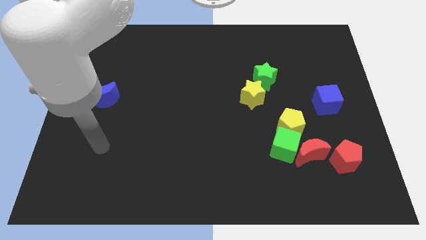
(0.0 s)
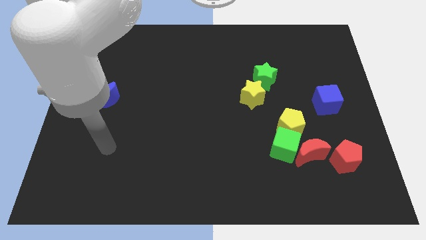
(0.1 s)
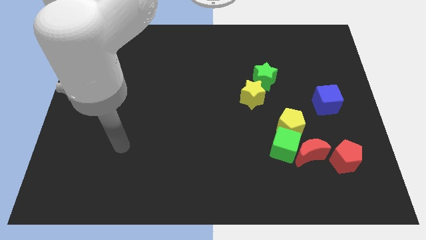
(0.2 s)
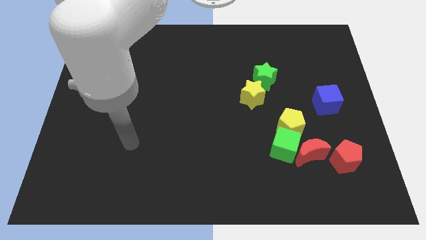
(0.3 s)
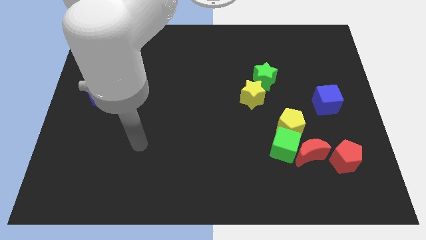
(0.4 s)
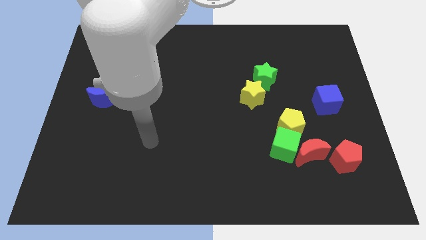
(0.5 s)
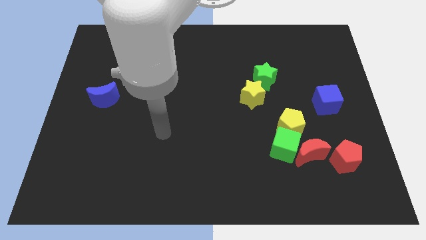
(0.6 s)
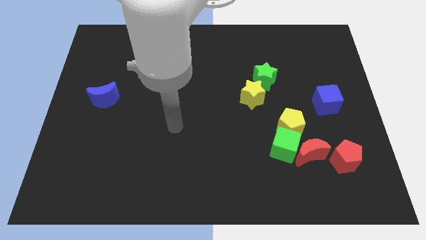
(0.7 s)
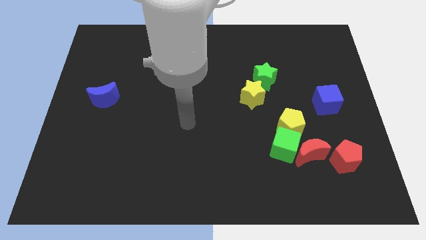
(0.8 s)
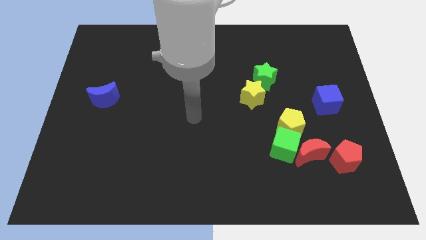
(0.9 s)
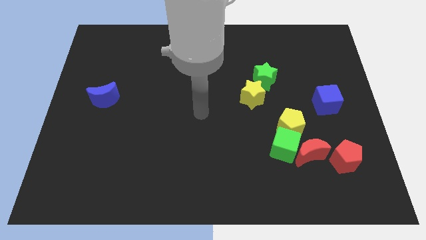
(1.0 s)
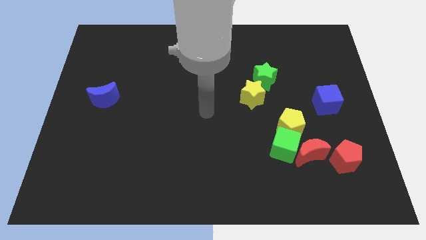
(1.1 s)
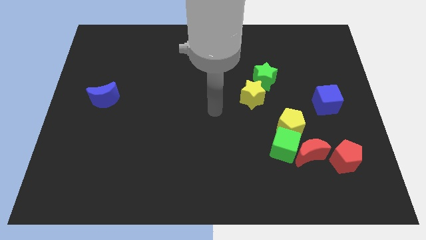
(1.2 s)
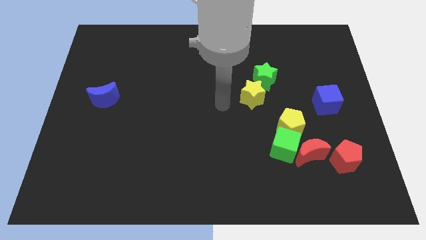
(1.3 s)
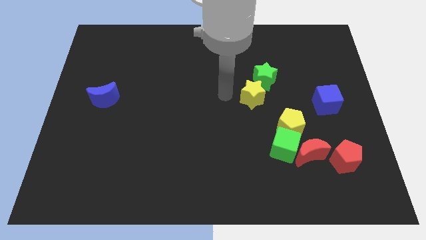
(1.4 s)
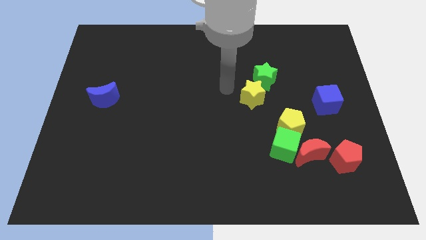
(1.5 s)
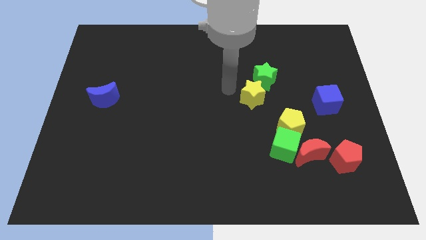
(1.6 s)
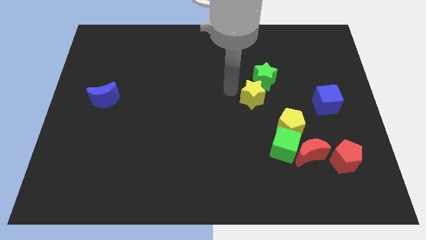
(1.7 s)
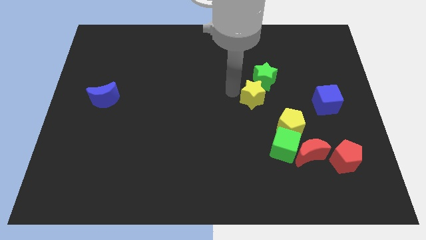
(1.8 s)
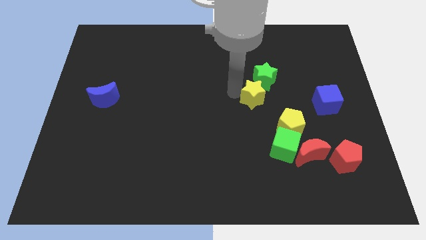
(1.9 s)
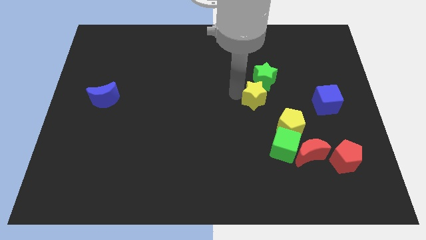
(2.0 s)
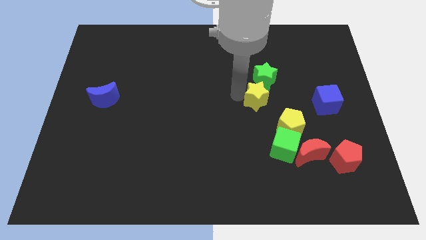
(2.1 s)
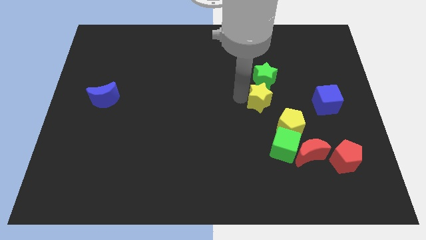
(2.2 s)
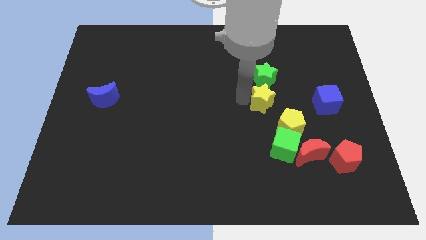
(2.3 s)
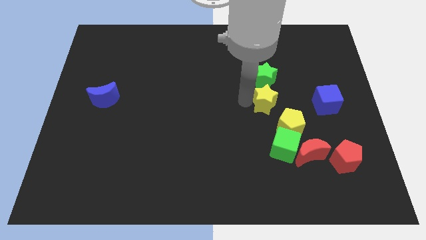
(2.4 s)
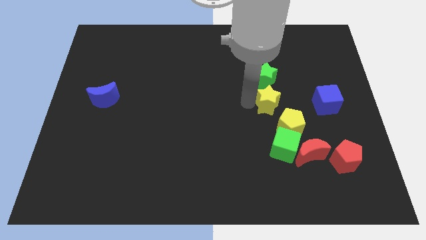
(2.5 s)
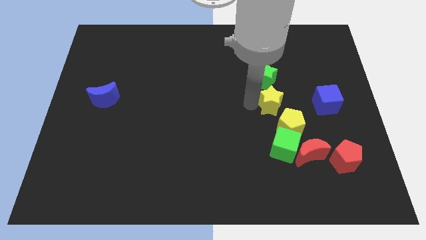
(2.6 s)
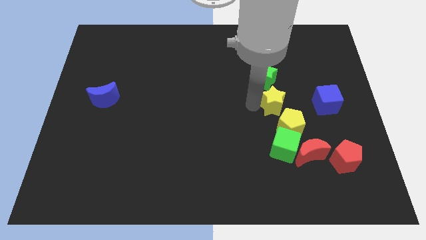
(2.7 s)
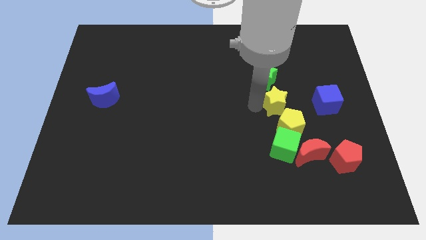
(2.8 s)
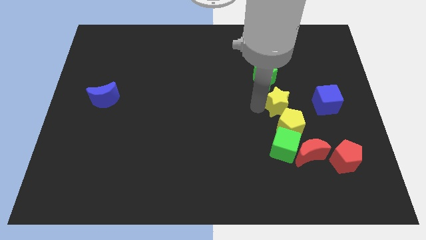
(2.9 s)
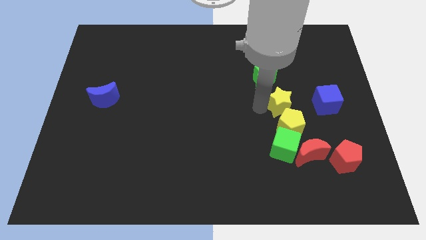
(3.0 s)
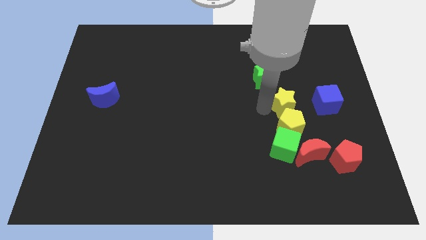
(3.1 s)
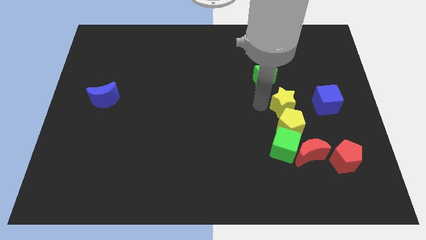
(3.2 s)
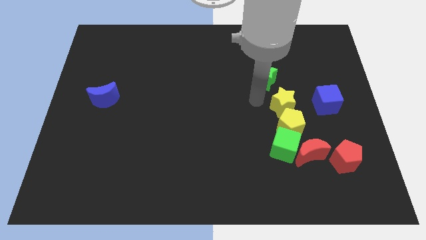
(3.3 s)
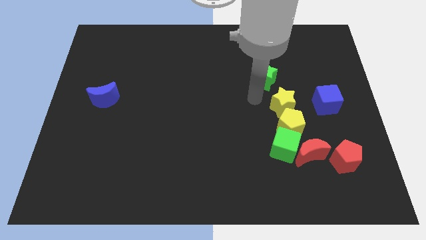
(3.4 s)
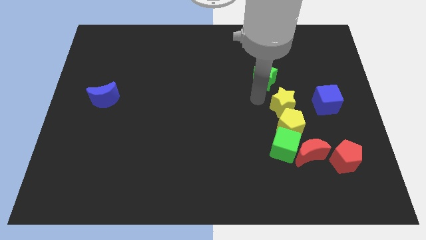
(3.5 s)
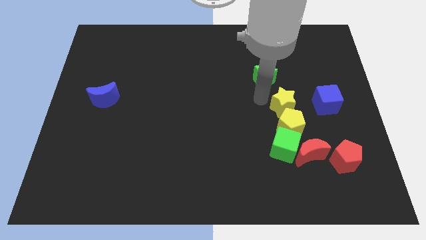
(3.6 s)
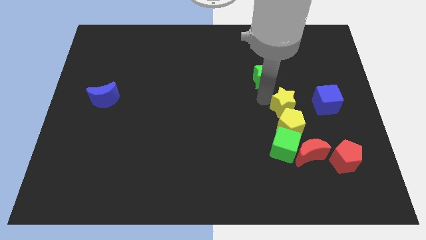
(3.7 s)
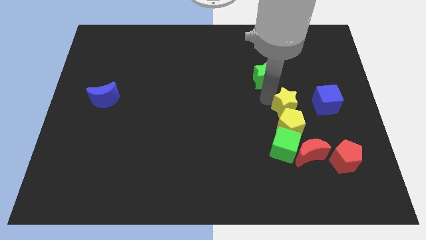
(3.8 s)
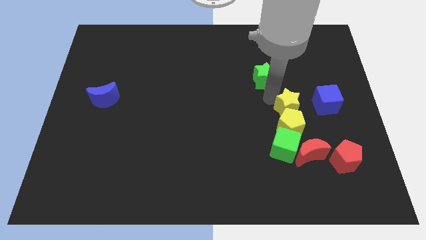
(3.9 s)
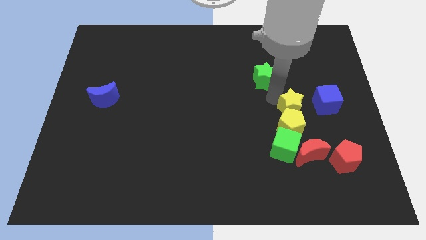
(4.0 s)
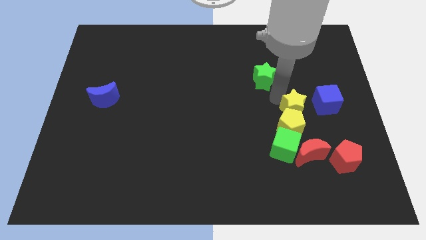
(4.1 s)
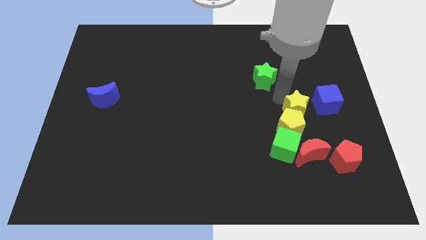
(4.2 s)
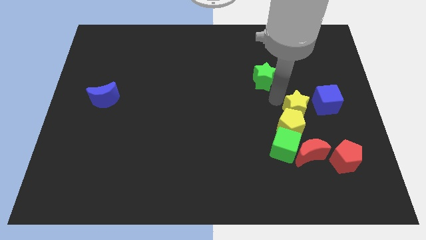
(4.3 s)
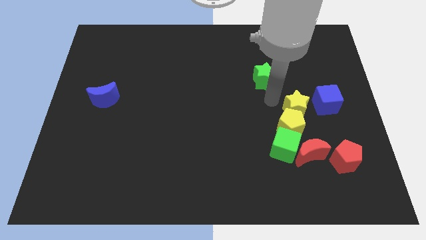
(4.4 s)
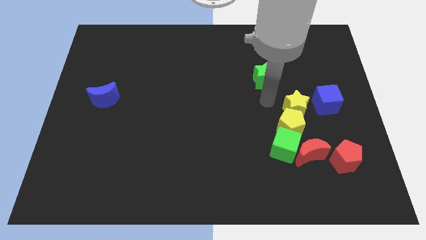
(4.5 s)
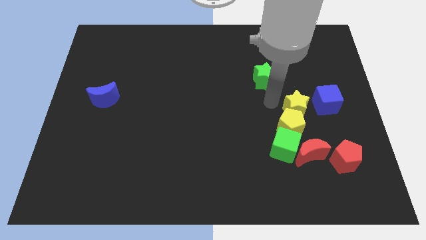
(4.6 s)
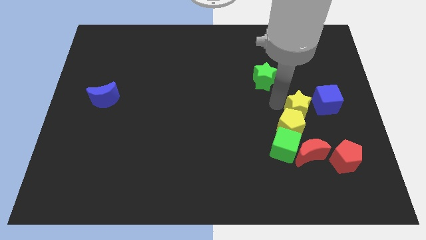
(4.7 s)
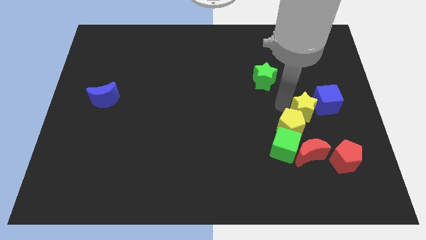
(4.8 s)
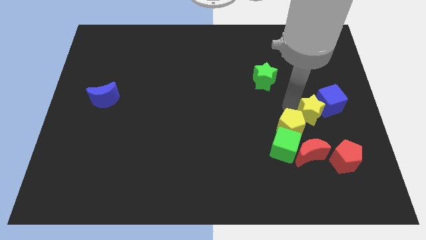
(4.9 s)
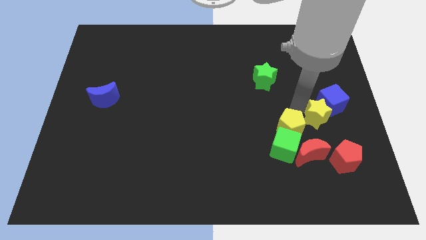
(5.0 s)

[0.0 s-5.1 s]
push the yellow star above the red pentagon

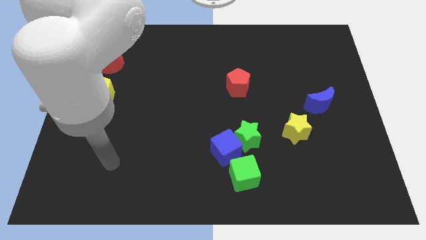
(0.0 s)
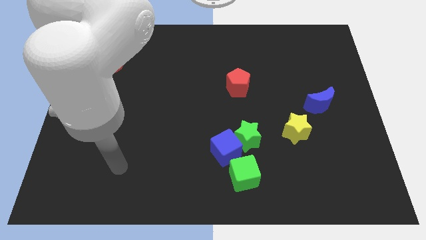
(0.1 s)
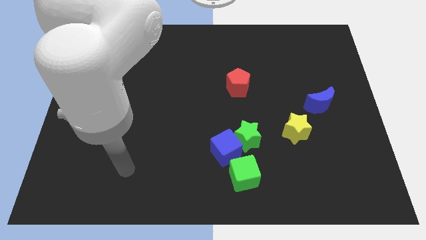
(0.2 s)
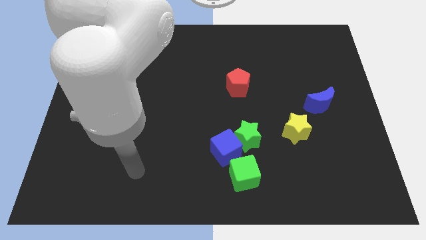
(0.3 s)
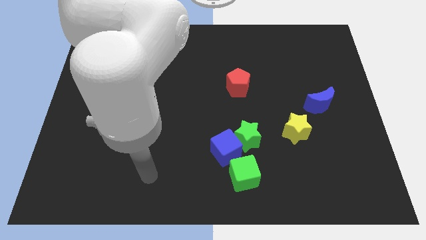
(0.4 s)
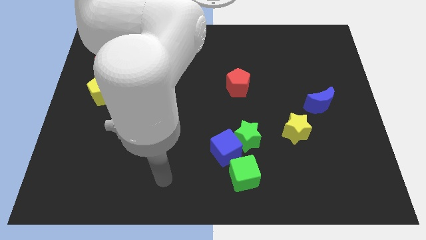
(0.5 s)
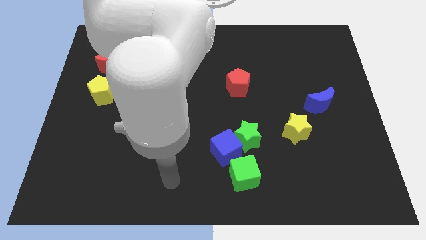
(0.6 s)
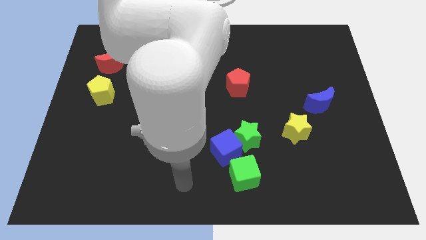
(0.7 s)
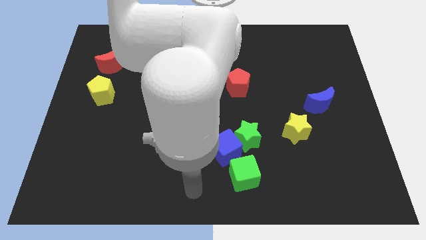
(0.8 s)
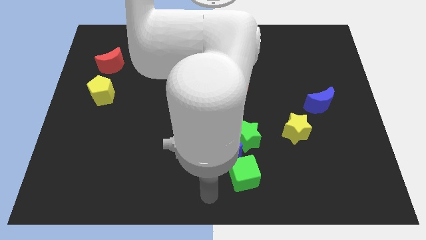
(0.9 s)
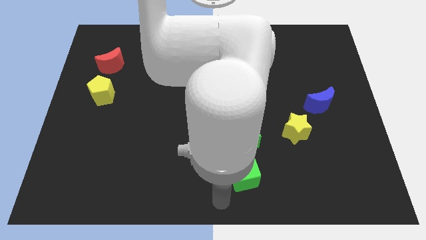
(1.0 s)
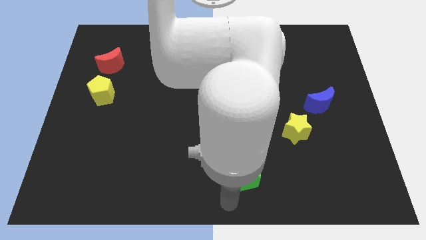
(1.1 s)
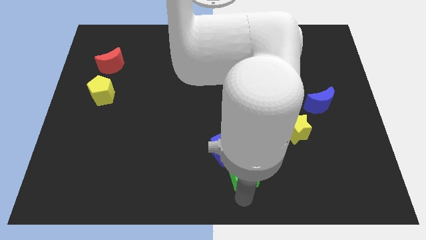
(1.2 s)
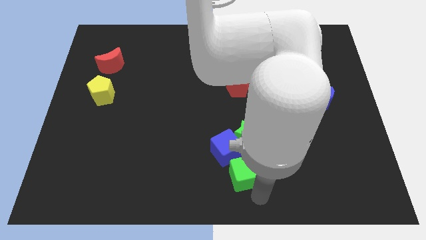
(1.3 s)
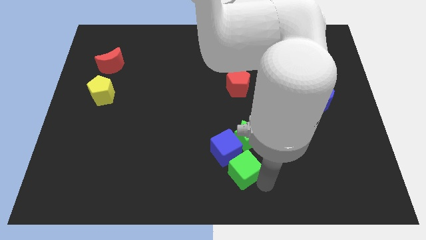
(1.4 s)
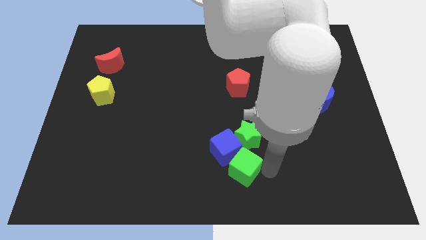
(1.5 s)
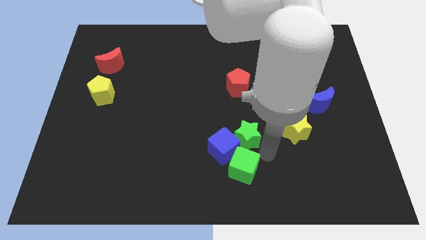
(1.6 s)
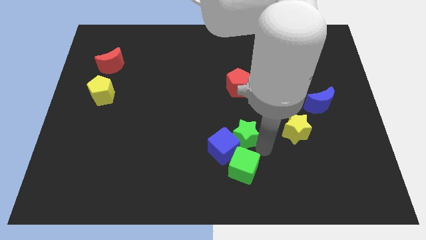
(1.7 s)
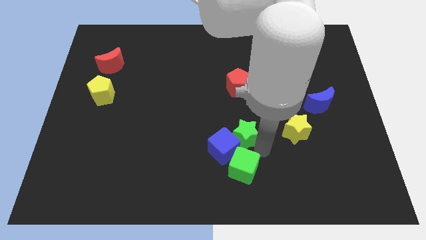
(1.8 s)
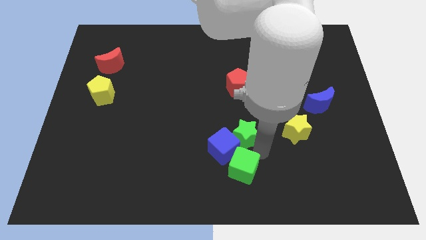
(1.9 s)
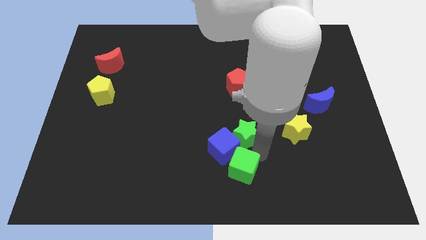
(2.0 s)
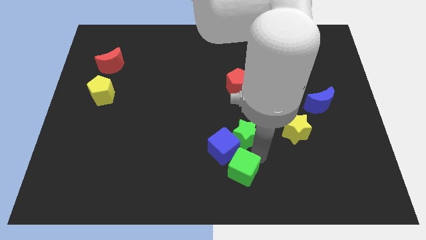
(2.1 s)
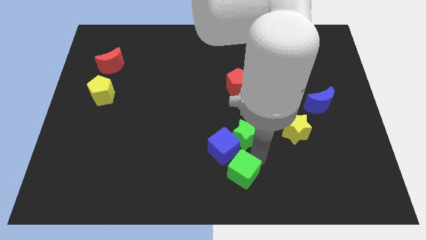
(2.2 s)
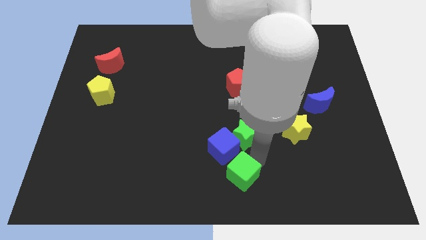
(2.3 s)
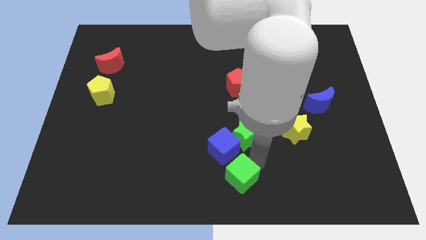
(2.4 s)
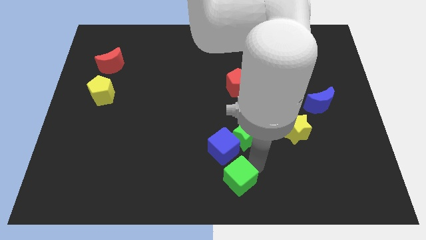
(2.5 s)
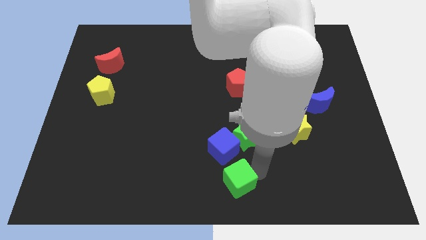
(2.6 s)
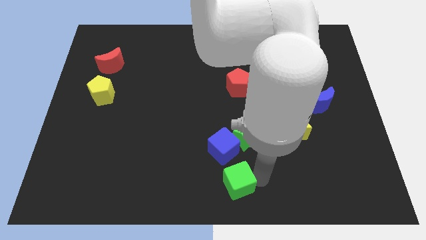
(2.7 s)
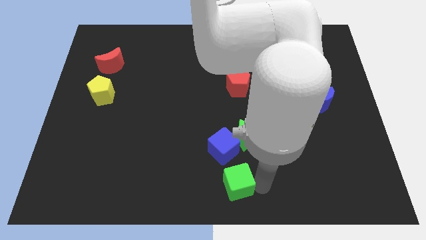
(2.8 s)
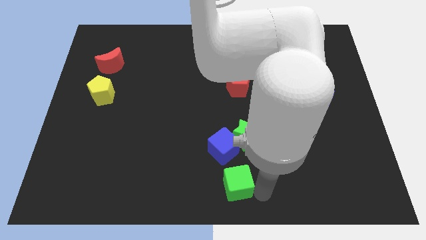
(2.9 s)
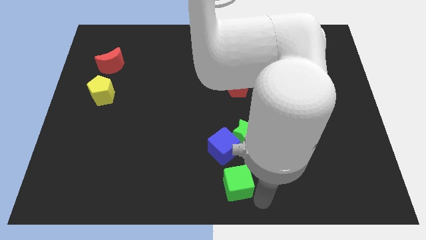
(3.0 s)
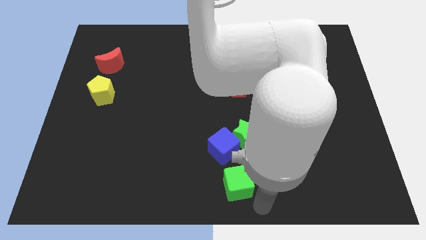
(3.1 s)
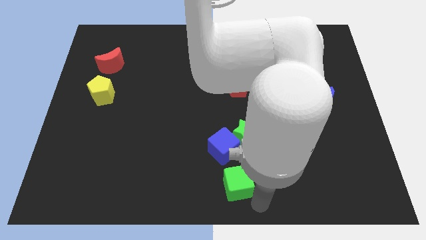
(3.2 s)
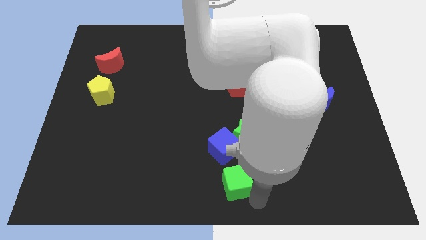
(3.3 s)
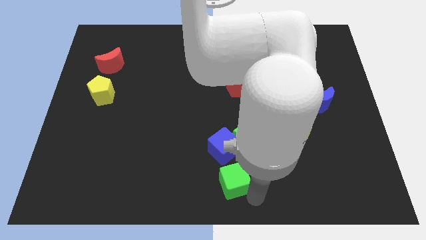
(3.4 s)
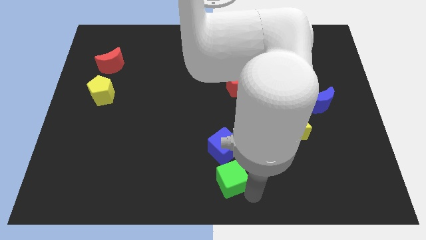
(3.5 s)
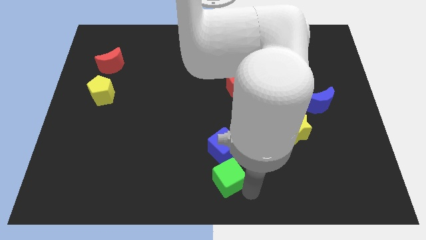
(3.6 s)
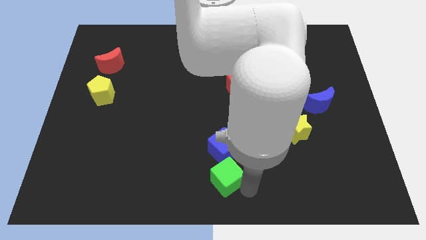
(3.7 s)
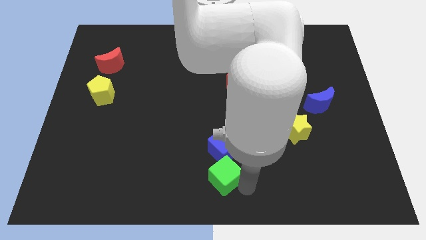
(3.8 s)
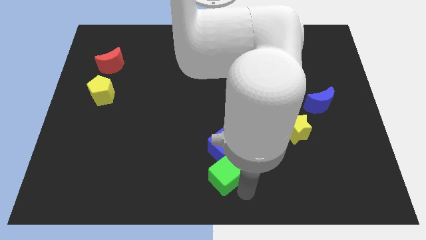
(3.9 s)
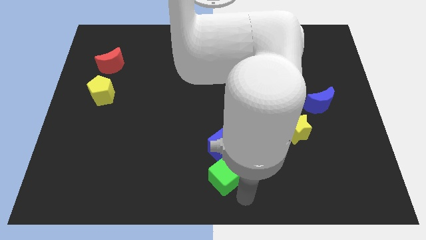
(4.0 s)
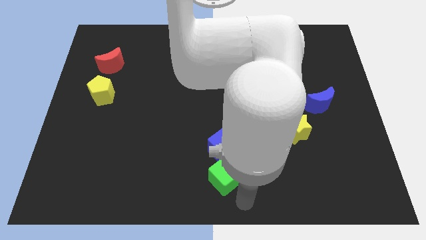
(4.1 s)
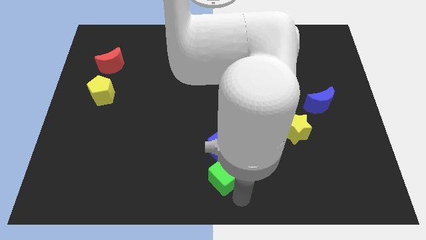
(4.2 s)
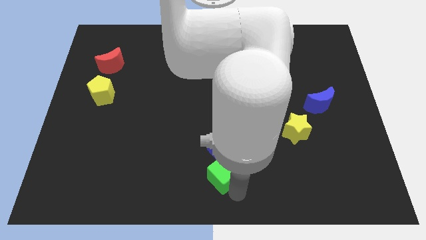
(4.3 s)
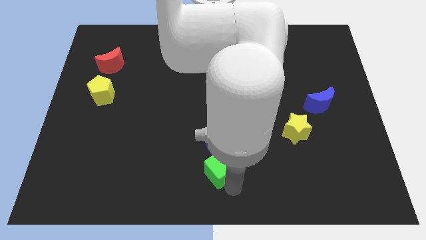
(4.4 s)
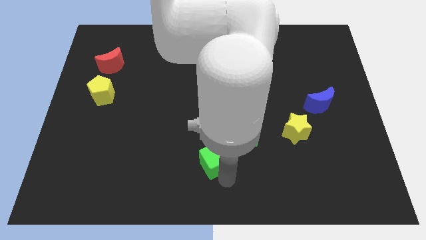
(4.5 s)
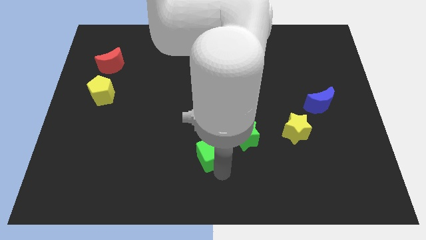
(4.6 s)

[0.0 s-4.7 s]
slide the green cube to the left side of the green star
